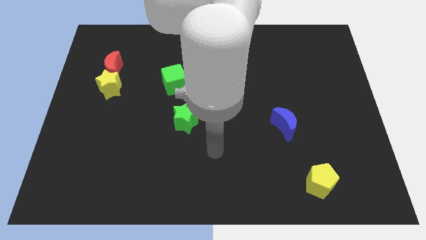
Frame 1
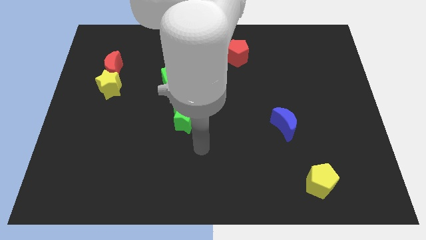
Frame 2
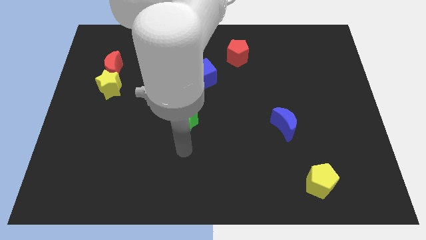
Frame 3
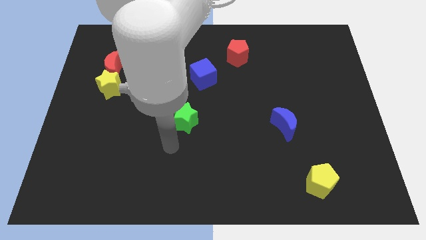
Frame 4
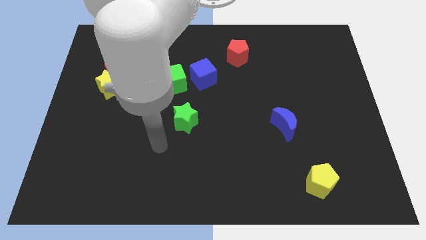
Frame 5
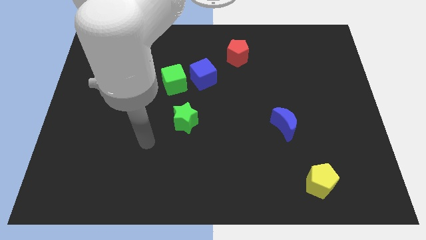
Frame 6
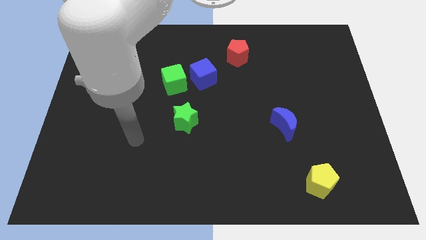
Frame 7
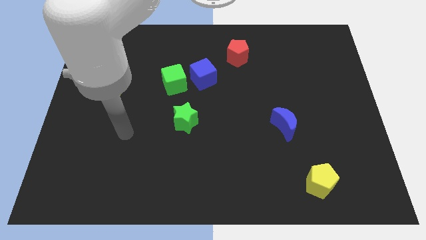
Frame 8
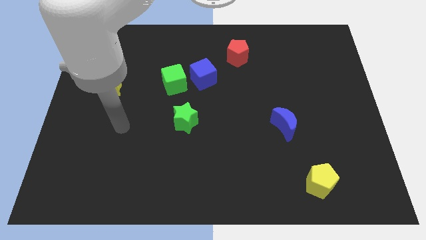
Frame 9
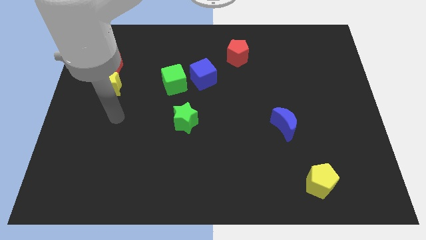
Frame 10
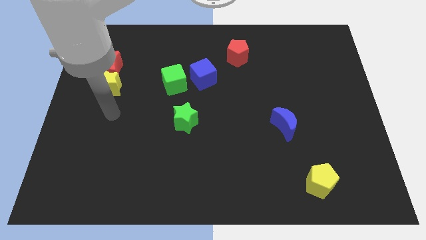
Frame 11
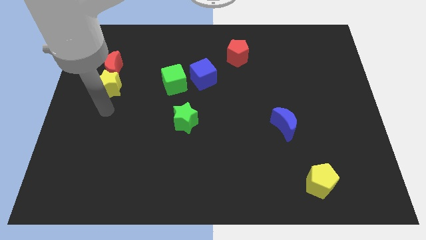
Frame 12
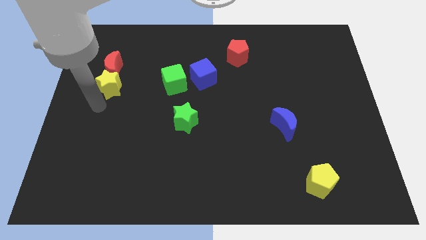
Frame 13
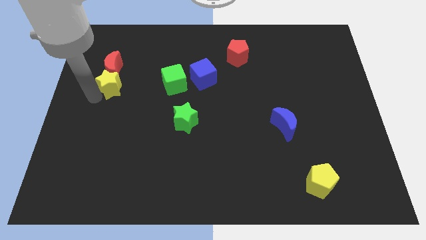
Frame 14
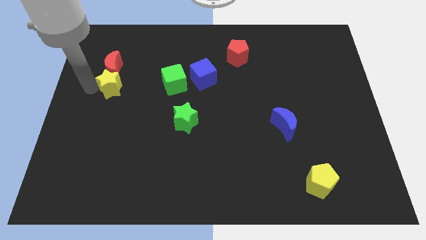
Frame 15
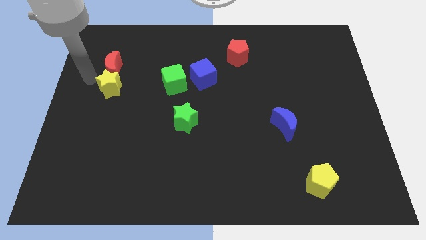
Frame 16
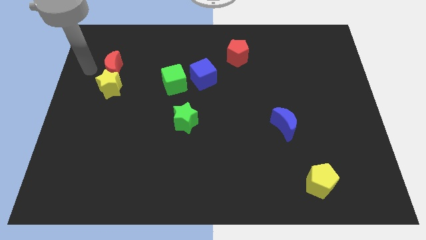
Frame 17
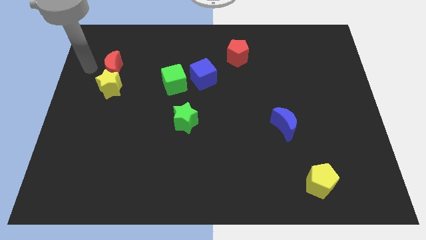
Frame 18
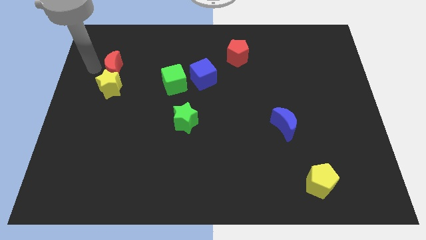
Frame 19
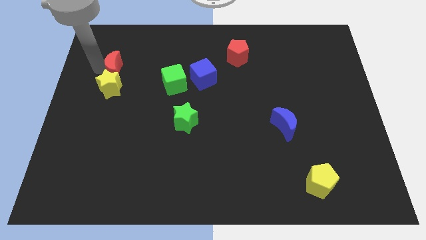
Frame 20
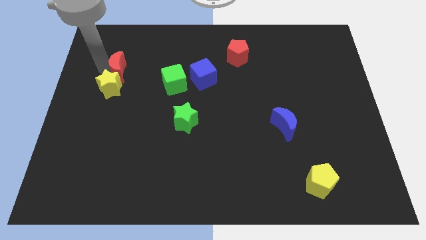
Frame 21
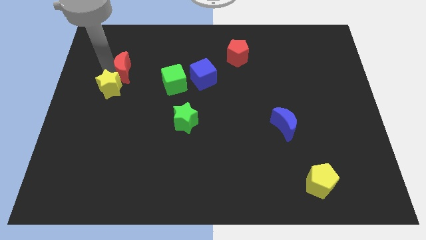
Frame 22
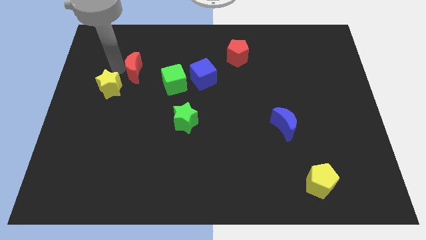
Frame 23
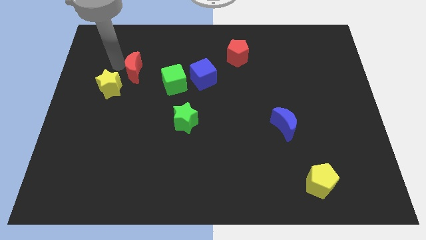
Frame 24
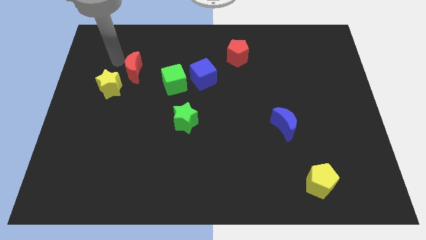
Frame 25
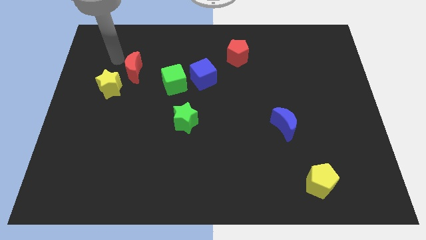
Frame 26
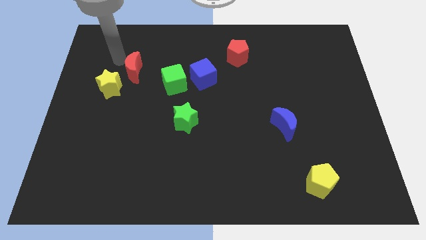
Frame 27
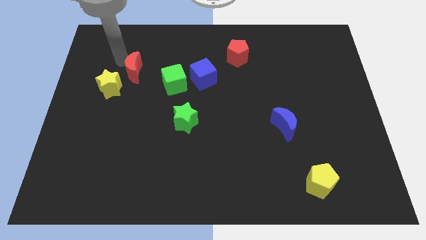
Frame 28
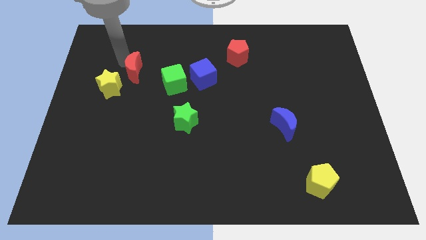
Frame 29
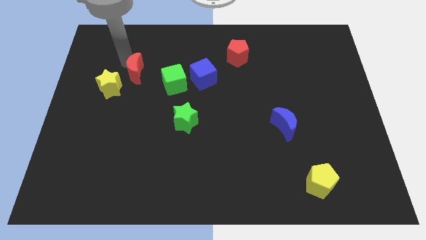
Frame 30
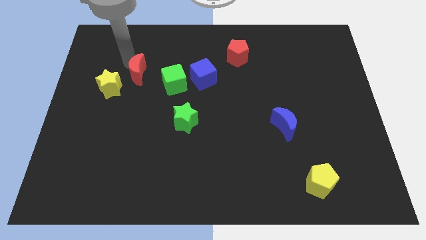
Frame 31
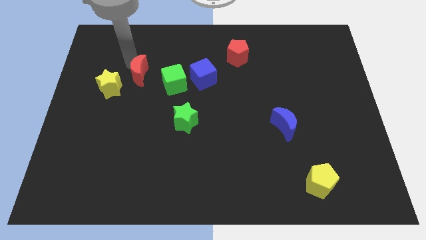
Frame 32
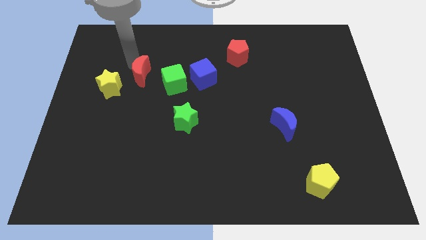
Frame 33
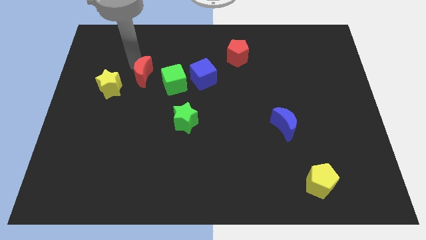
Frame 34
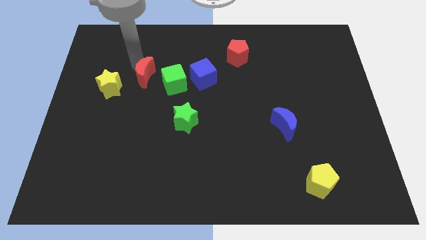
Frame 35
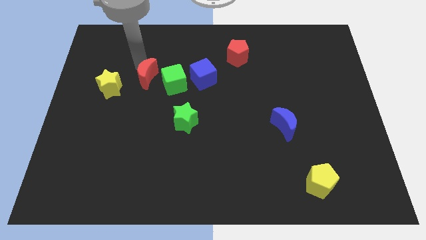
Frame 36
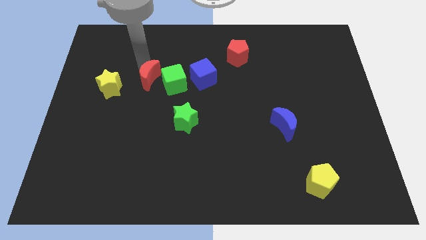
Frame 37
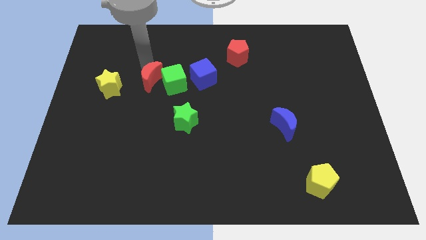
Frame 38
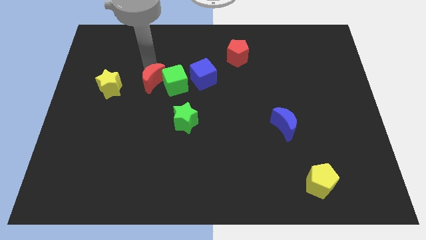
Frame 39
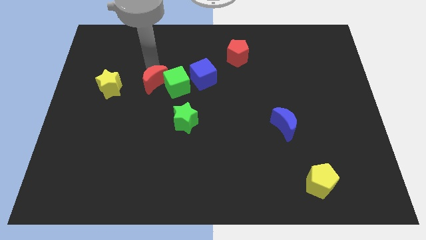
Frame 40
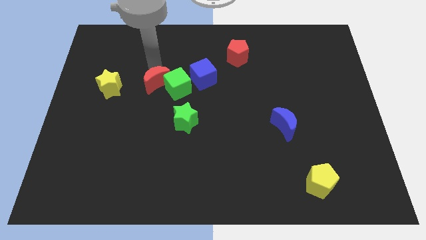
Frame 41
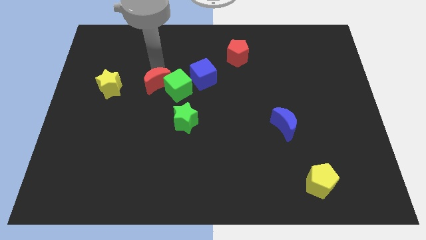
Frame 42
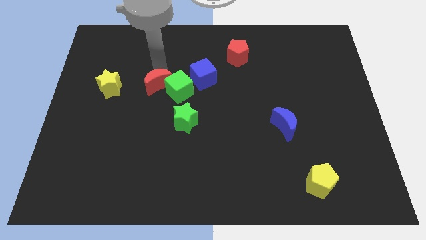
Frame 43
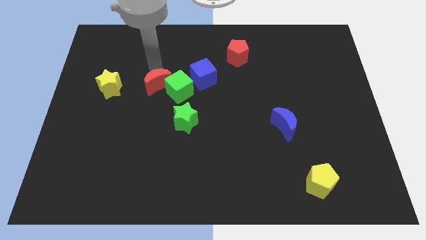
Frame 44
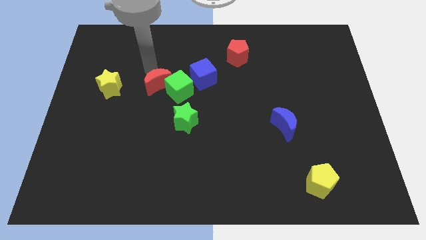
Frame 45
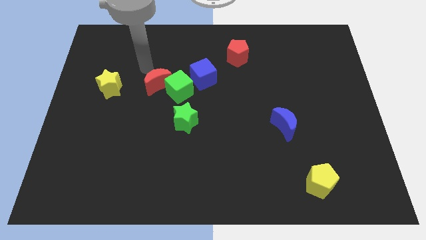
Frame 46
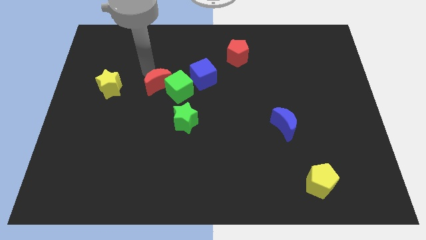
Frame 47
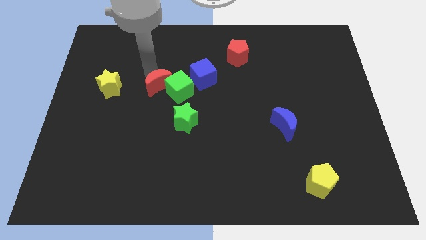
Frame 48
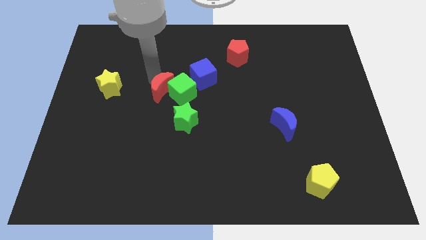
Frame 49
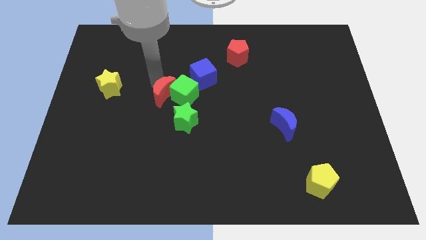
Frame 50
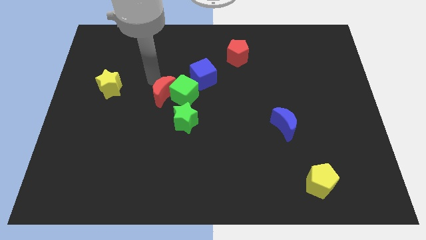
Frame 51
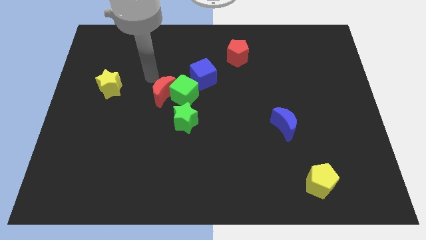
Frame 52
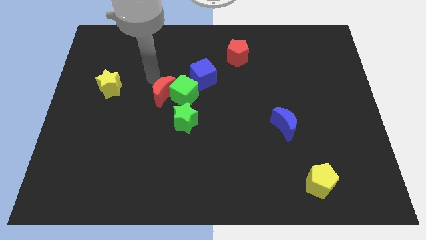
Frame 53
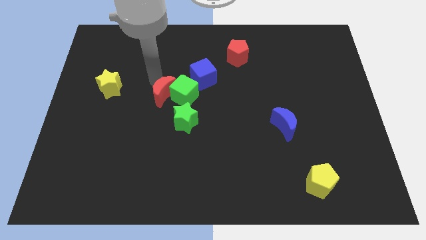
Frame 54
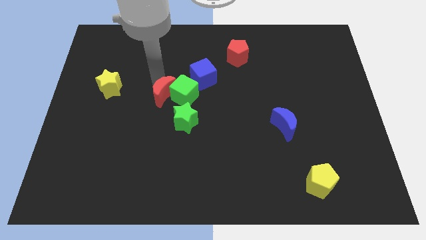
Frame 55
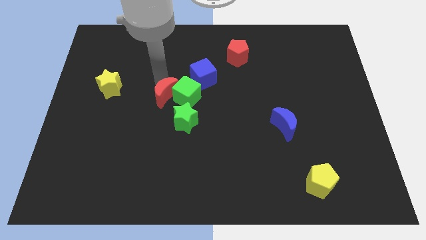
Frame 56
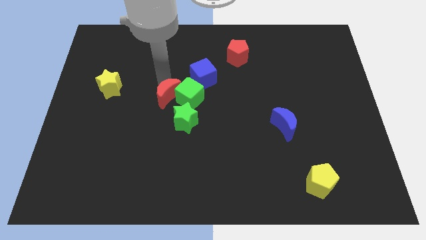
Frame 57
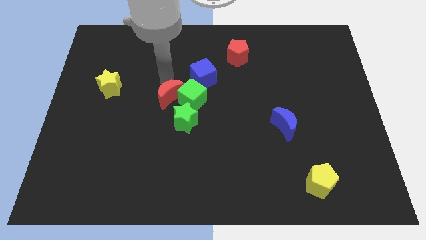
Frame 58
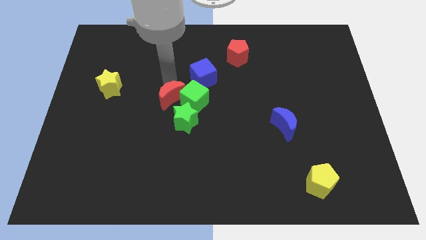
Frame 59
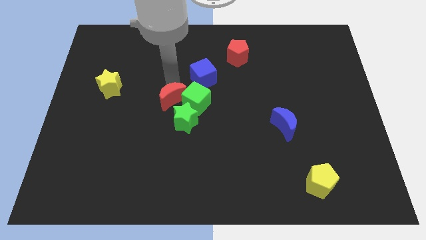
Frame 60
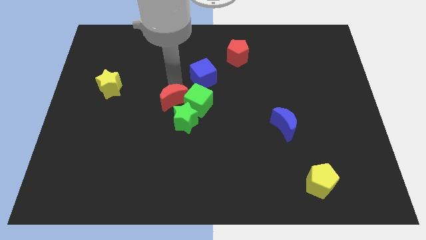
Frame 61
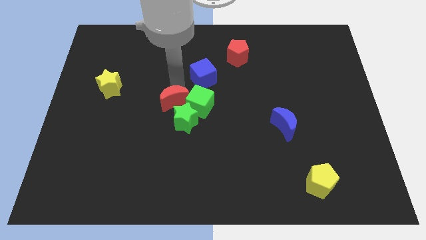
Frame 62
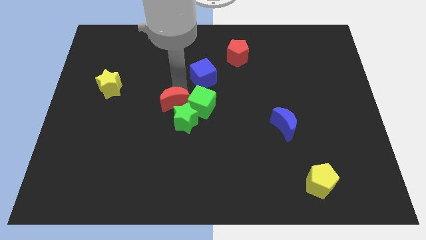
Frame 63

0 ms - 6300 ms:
slide the red moon next to the green star

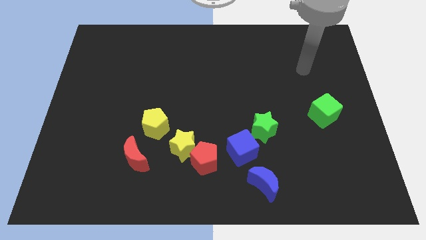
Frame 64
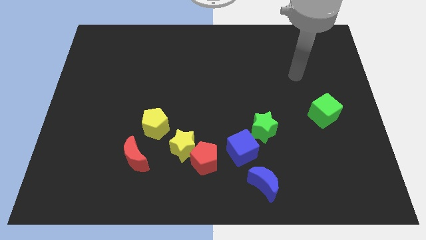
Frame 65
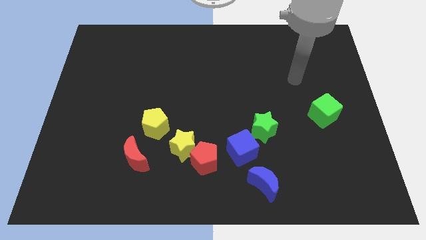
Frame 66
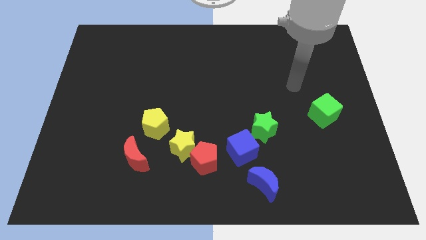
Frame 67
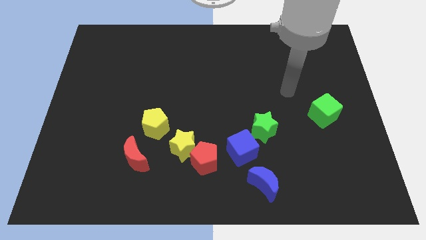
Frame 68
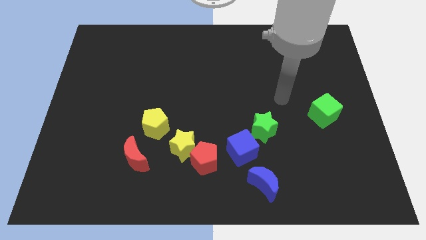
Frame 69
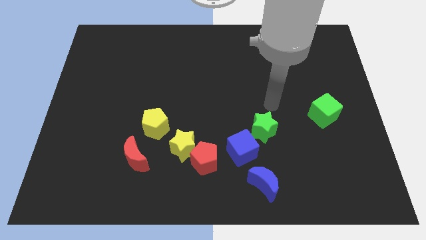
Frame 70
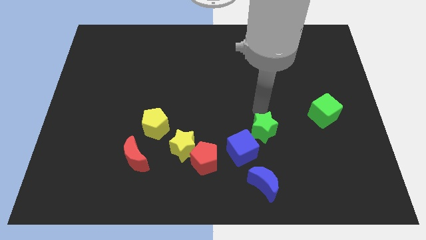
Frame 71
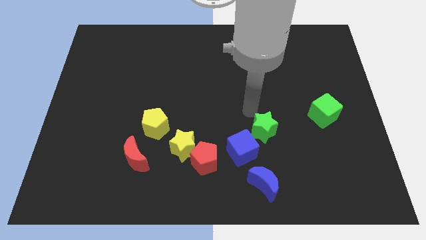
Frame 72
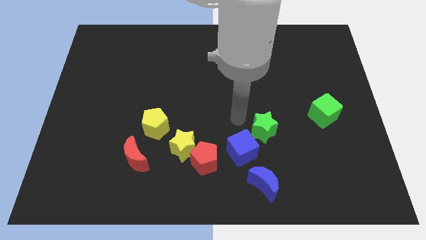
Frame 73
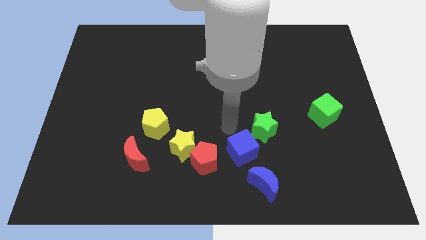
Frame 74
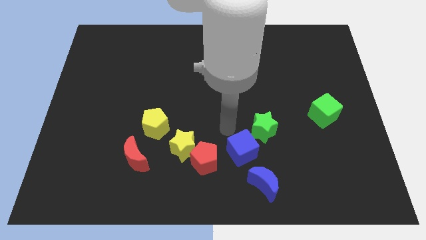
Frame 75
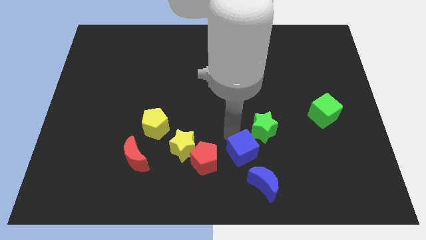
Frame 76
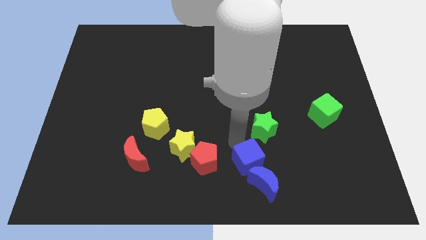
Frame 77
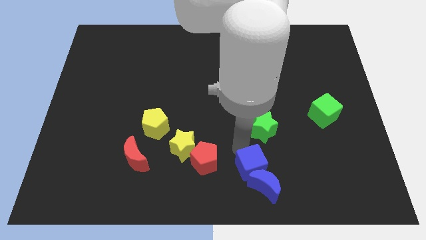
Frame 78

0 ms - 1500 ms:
put the blue cube next to the blue moon
